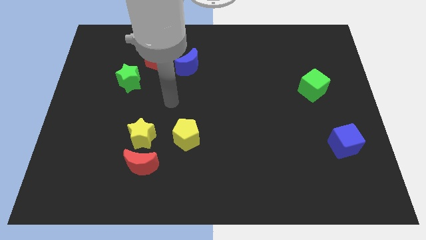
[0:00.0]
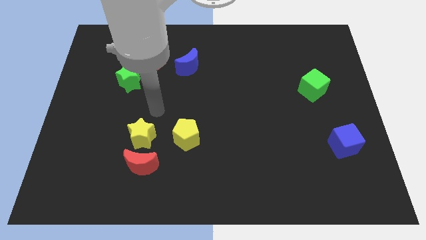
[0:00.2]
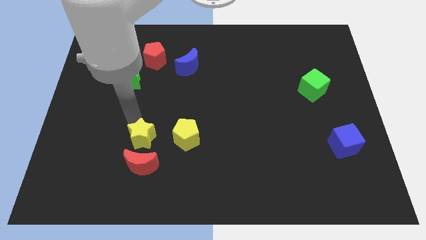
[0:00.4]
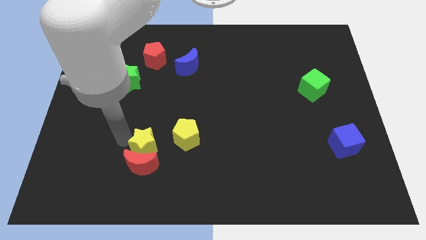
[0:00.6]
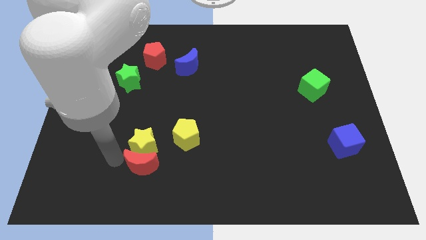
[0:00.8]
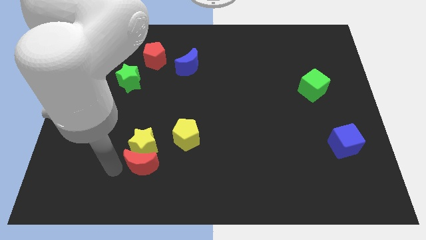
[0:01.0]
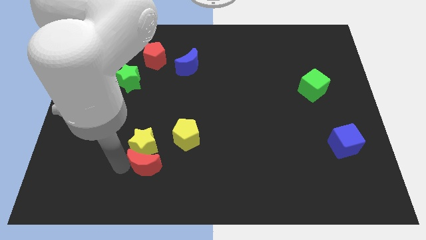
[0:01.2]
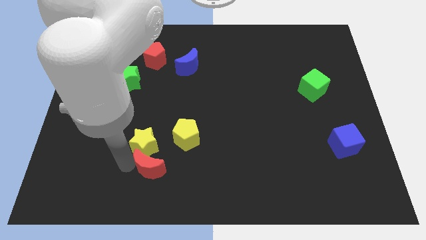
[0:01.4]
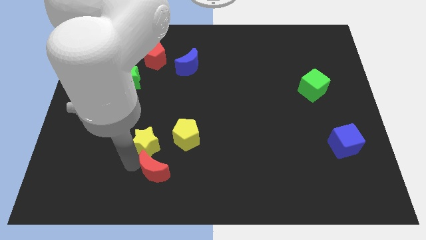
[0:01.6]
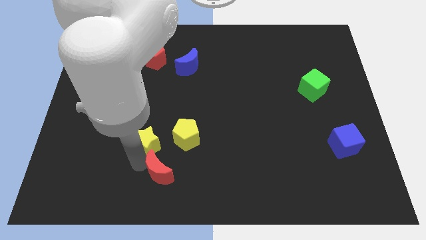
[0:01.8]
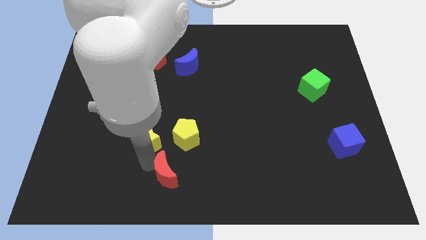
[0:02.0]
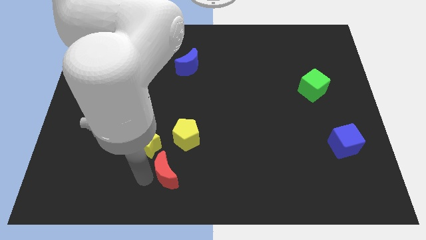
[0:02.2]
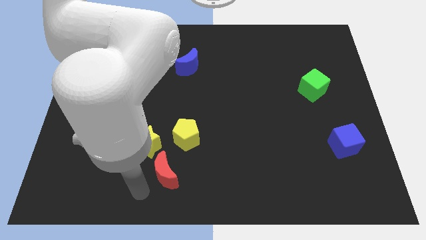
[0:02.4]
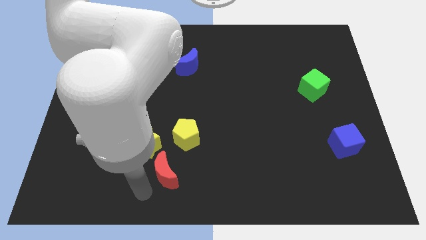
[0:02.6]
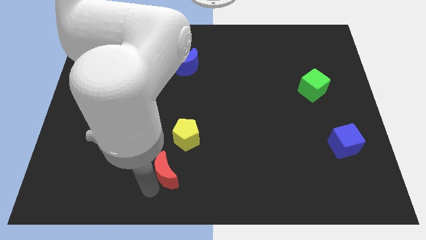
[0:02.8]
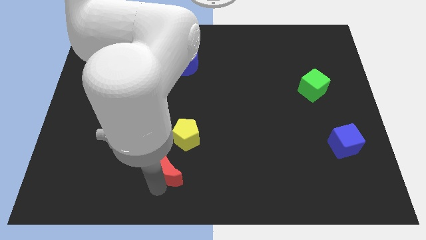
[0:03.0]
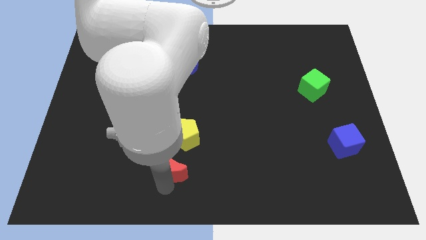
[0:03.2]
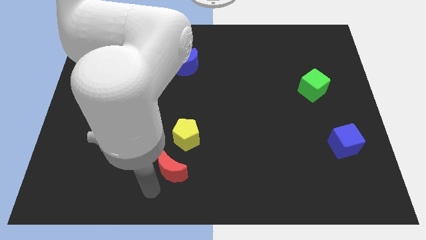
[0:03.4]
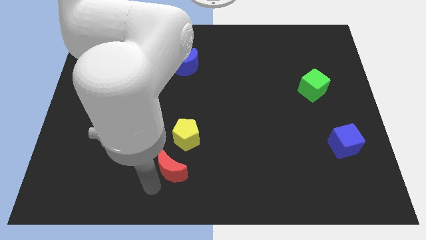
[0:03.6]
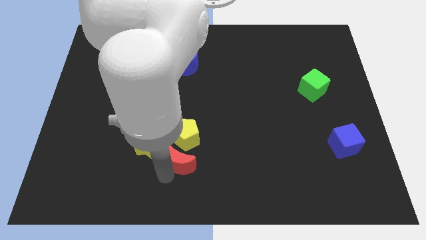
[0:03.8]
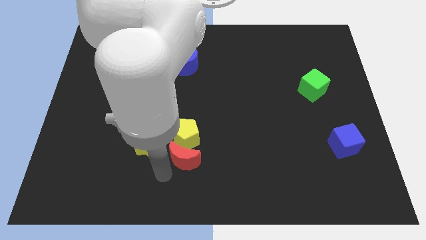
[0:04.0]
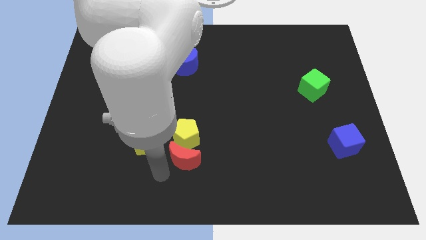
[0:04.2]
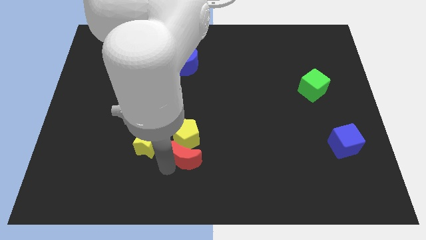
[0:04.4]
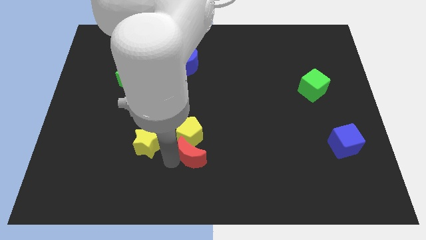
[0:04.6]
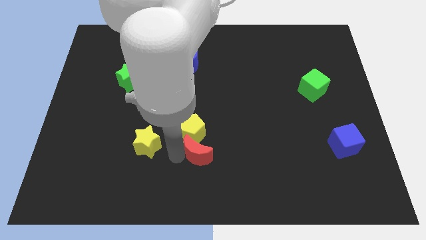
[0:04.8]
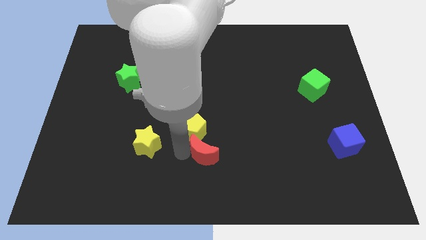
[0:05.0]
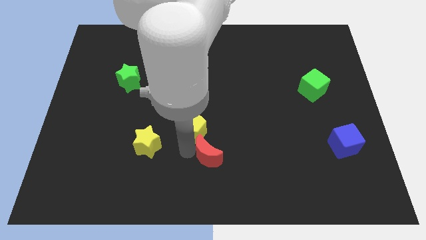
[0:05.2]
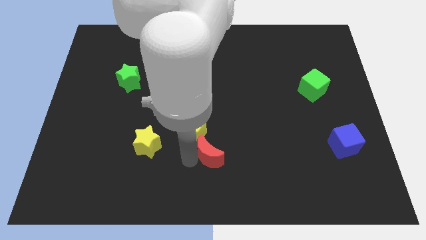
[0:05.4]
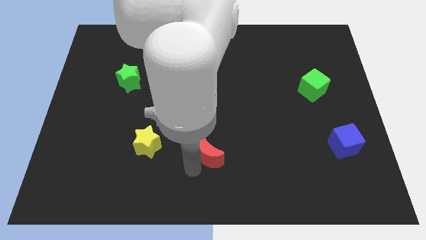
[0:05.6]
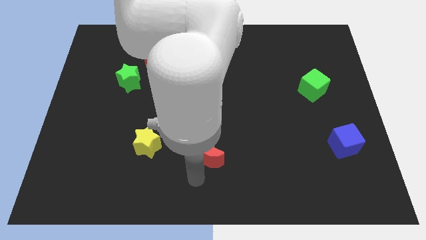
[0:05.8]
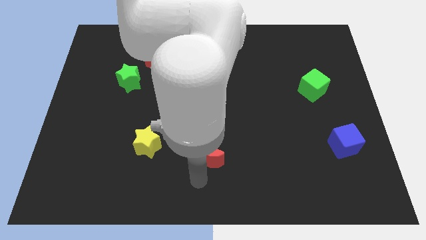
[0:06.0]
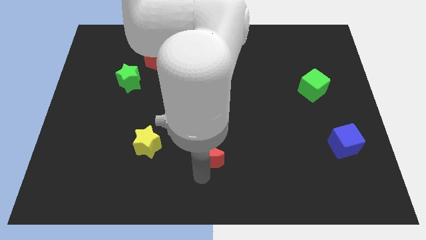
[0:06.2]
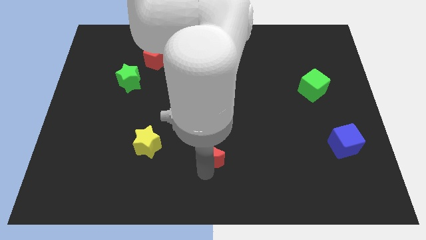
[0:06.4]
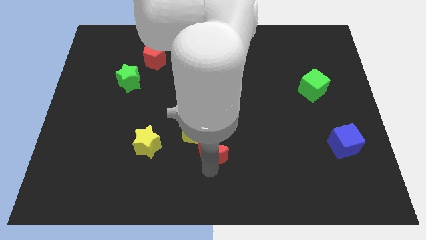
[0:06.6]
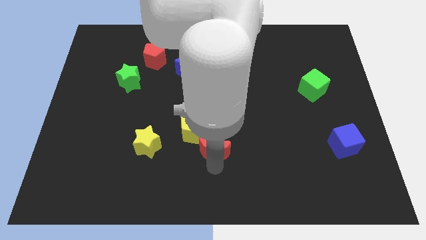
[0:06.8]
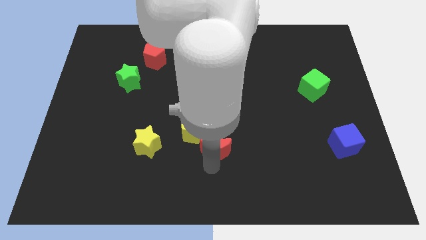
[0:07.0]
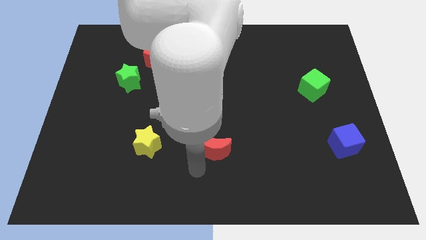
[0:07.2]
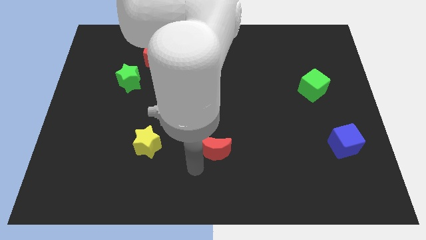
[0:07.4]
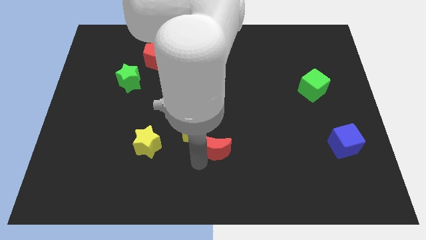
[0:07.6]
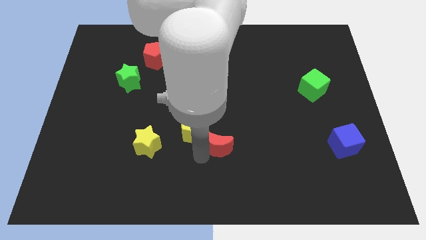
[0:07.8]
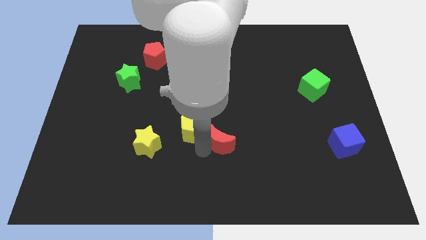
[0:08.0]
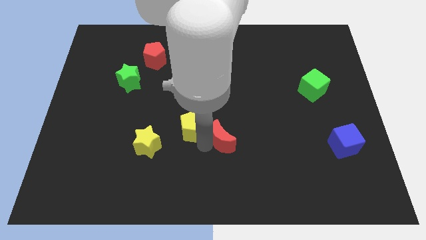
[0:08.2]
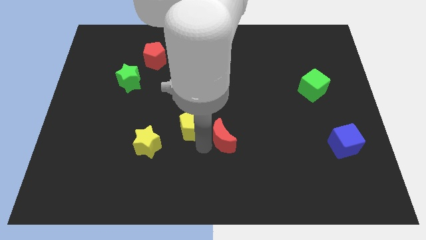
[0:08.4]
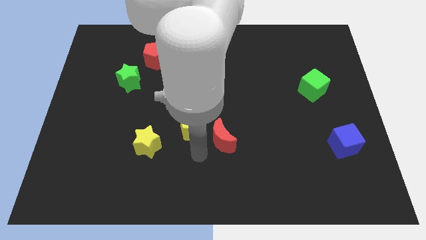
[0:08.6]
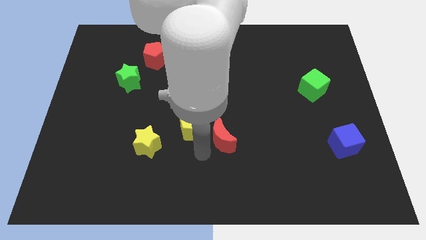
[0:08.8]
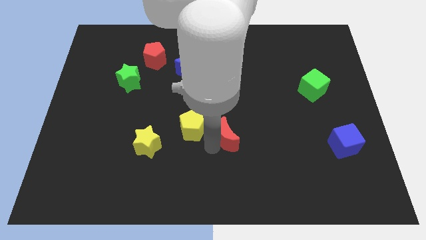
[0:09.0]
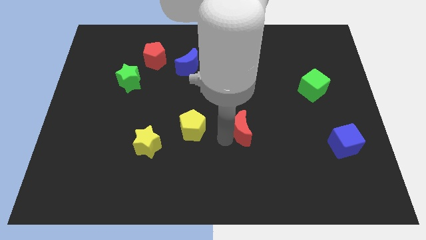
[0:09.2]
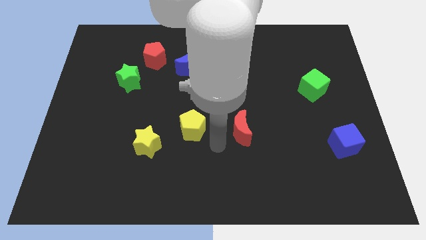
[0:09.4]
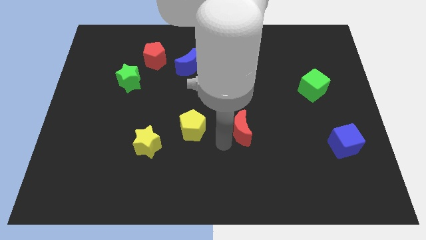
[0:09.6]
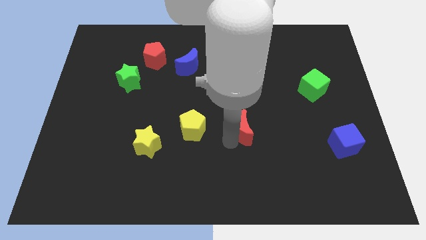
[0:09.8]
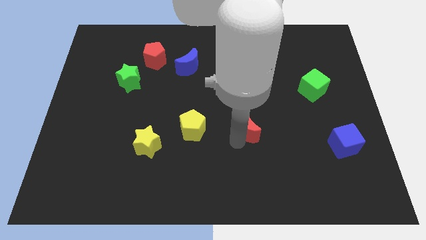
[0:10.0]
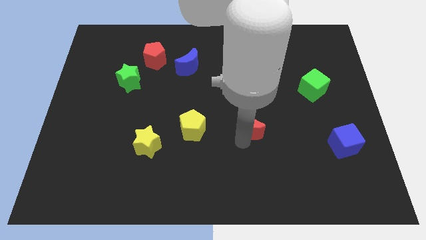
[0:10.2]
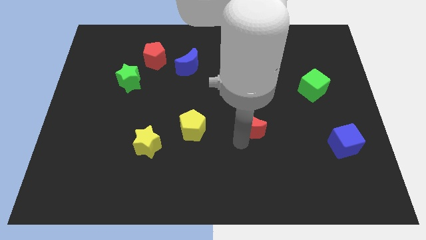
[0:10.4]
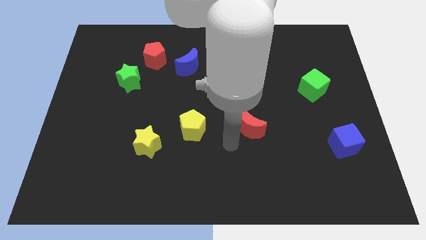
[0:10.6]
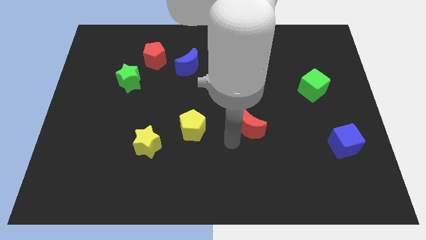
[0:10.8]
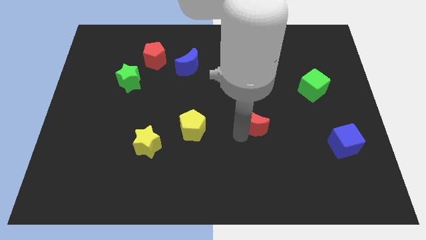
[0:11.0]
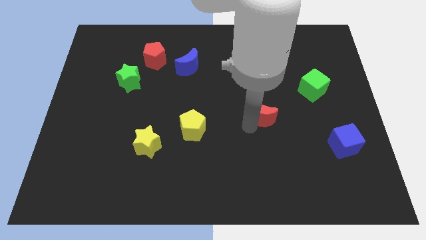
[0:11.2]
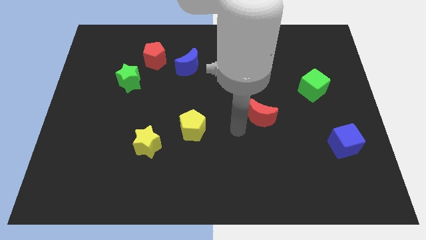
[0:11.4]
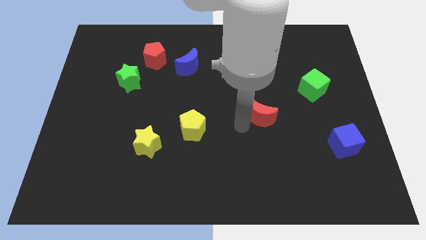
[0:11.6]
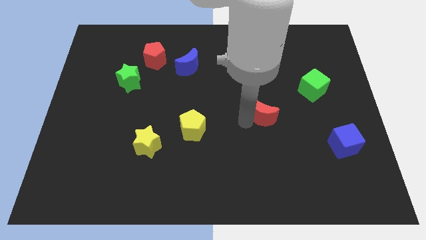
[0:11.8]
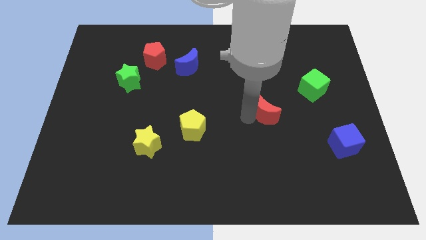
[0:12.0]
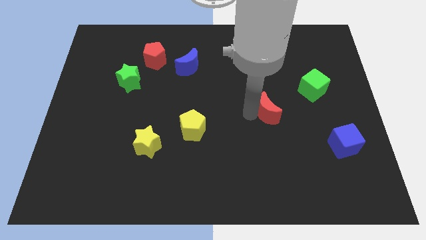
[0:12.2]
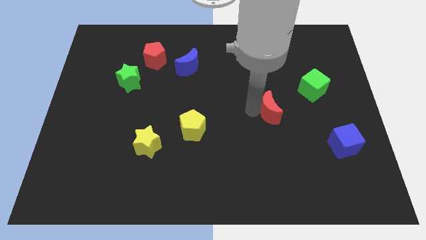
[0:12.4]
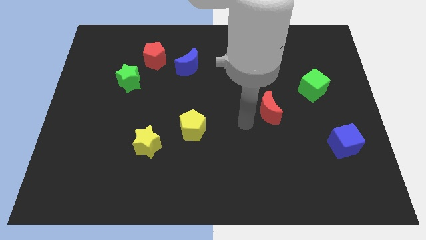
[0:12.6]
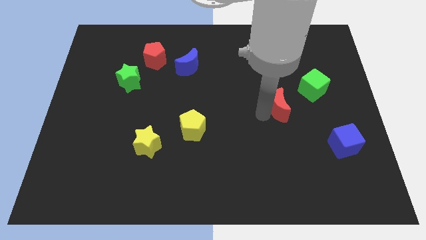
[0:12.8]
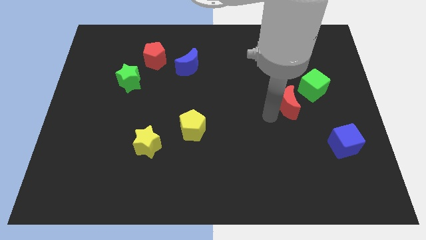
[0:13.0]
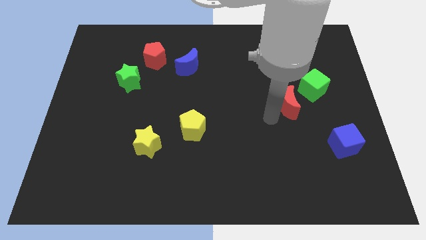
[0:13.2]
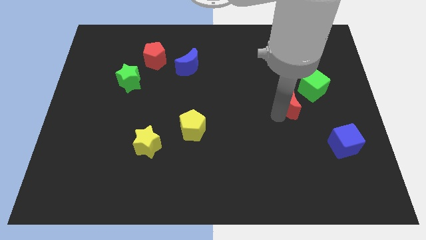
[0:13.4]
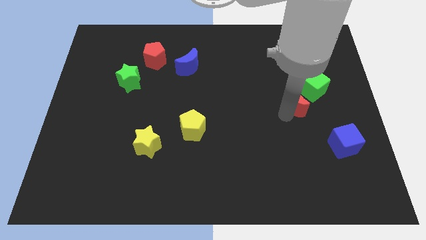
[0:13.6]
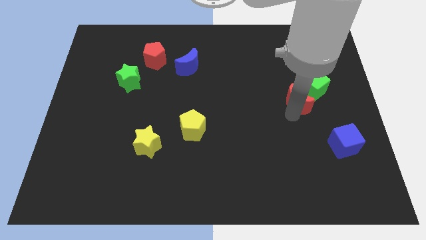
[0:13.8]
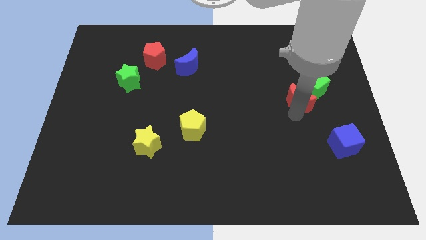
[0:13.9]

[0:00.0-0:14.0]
put the red moon to the green cube
